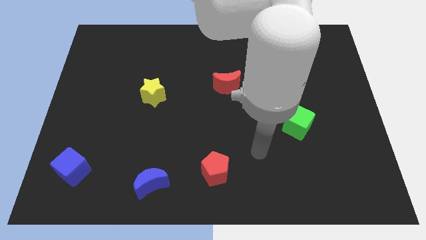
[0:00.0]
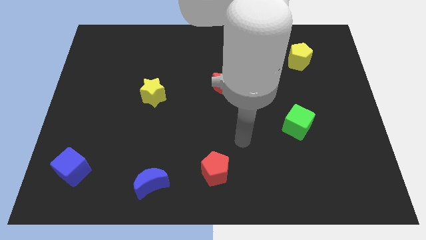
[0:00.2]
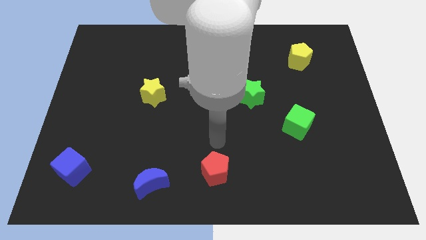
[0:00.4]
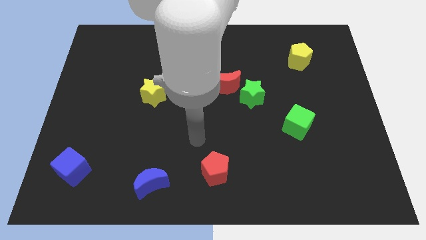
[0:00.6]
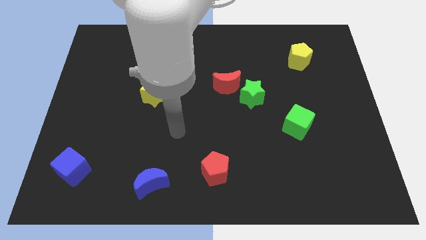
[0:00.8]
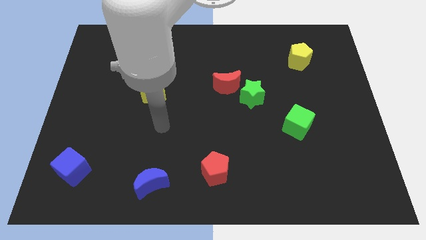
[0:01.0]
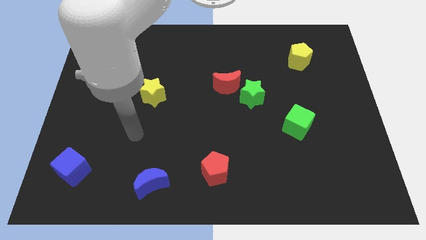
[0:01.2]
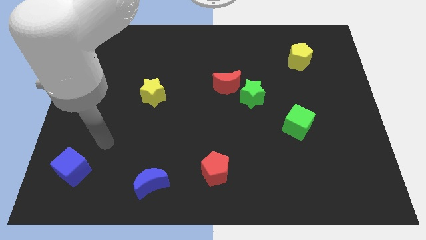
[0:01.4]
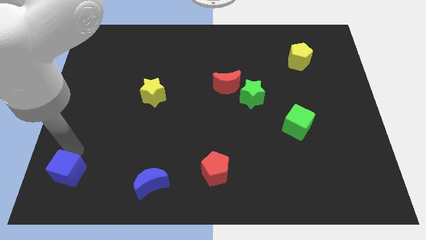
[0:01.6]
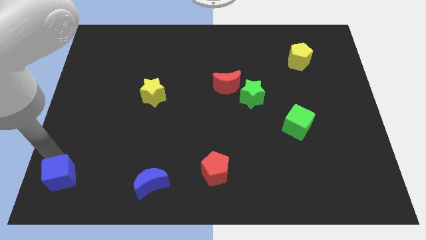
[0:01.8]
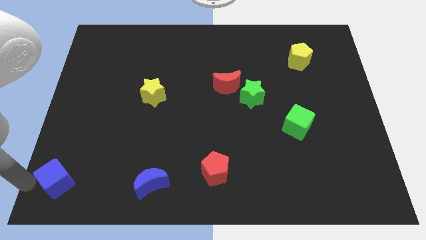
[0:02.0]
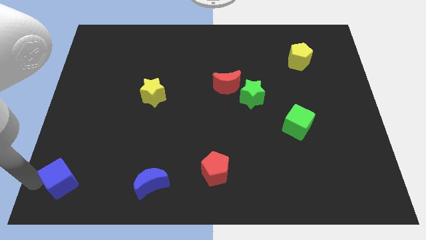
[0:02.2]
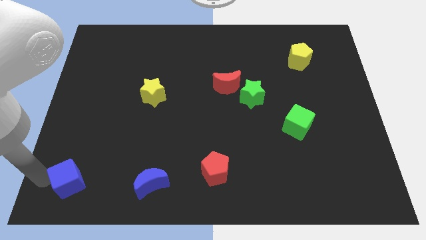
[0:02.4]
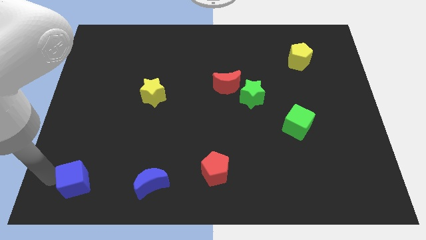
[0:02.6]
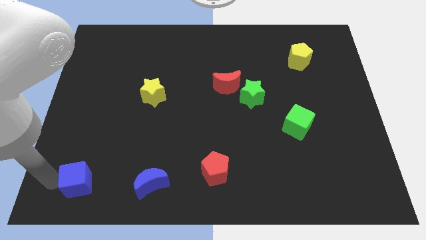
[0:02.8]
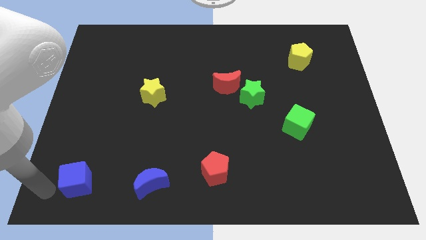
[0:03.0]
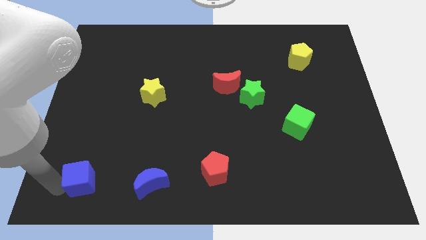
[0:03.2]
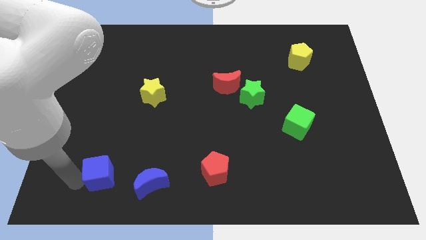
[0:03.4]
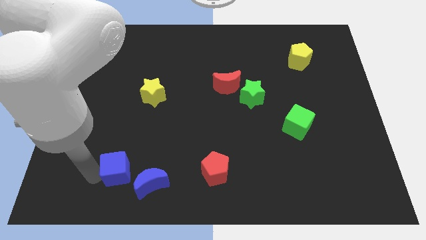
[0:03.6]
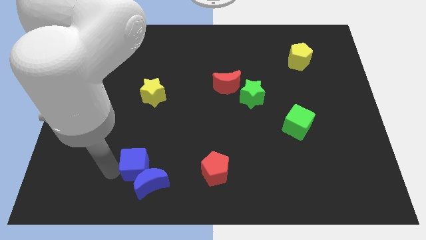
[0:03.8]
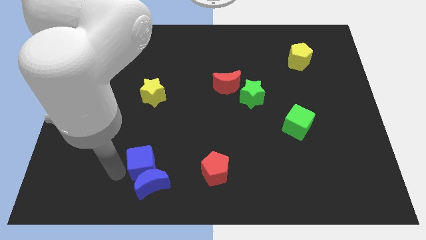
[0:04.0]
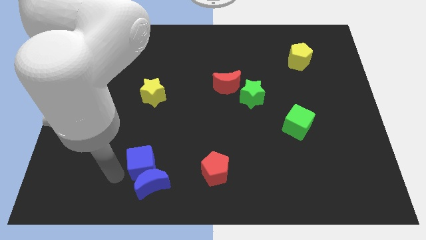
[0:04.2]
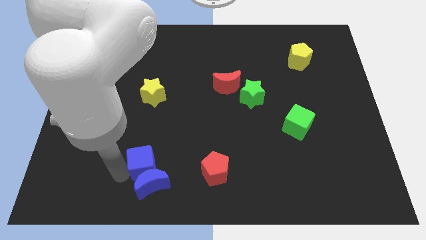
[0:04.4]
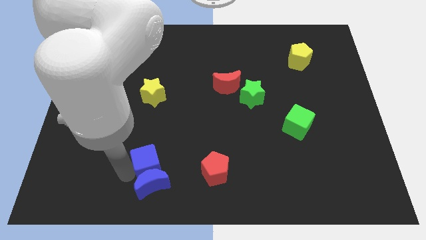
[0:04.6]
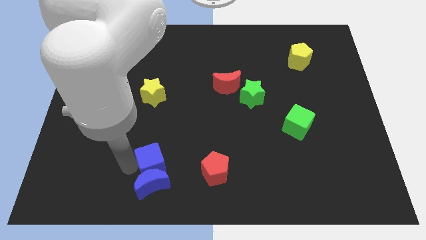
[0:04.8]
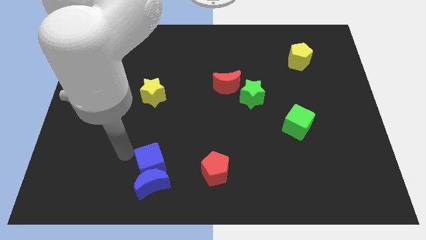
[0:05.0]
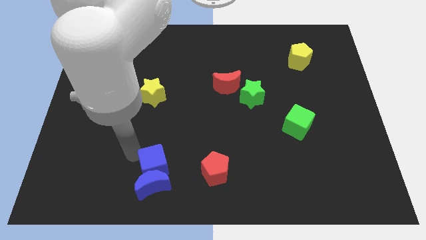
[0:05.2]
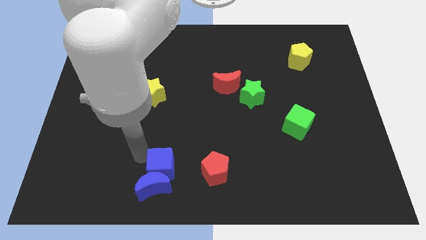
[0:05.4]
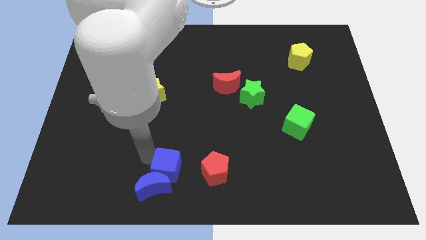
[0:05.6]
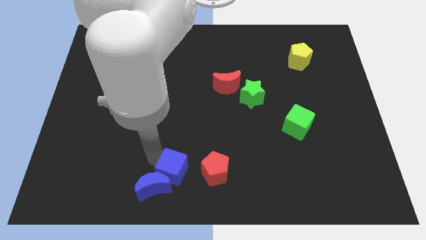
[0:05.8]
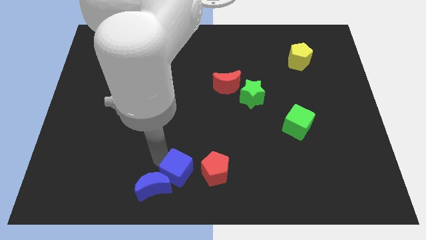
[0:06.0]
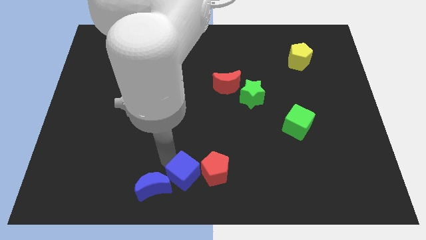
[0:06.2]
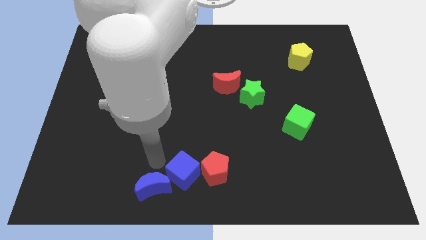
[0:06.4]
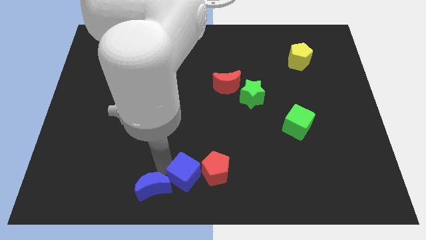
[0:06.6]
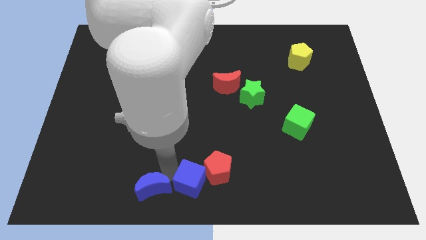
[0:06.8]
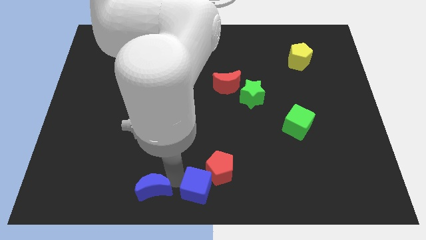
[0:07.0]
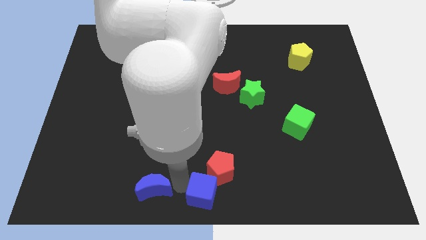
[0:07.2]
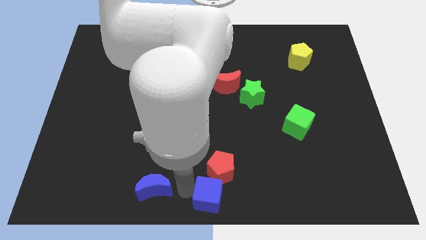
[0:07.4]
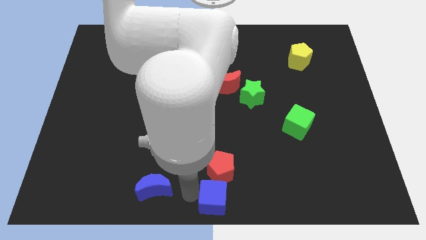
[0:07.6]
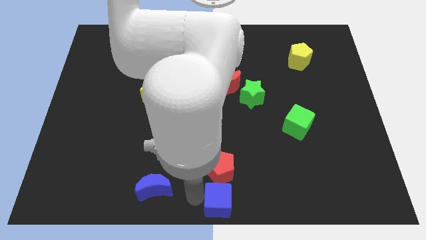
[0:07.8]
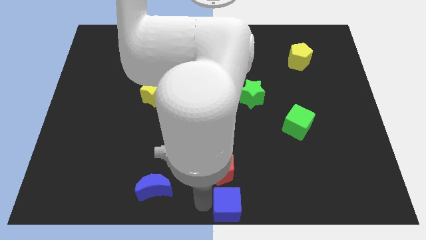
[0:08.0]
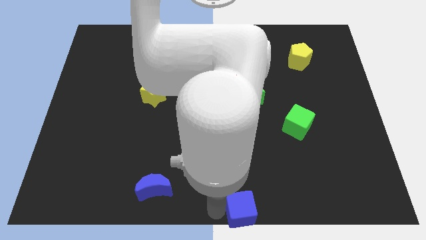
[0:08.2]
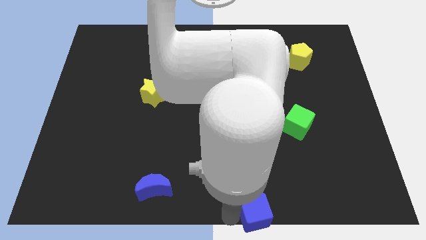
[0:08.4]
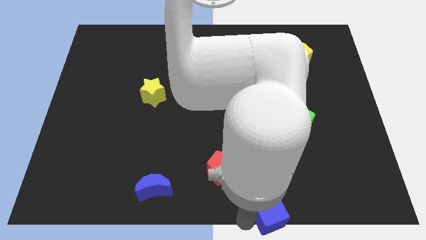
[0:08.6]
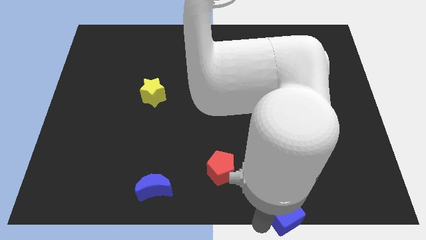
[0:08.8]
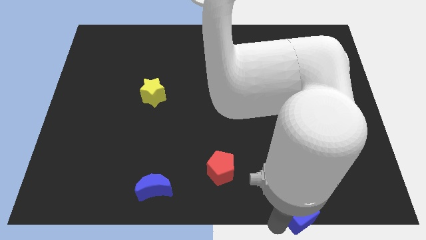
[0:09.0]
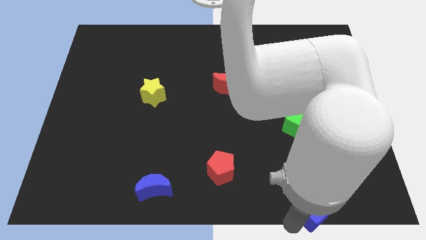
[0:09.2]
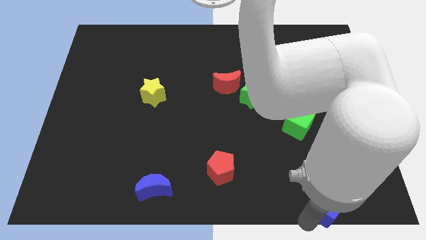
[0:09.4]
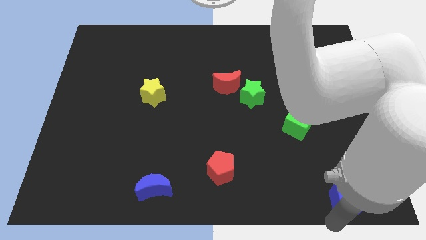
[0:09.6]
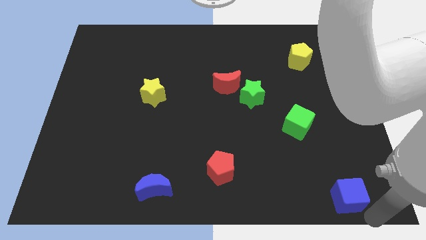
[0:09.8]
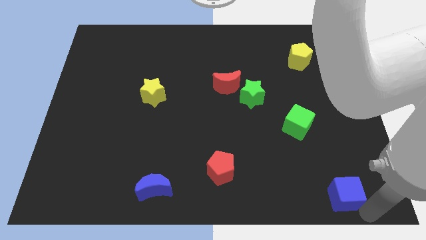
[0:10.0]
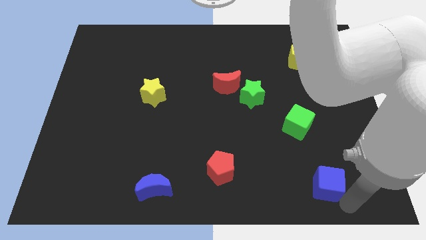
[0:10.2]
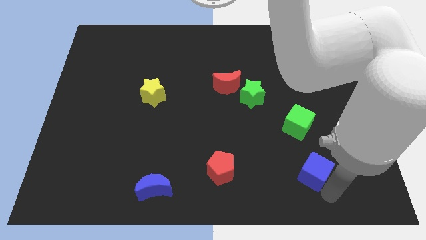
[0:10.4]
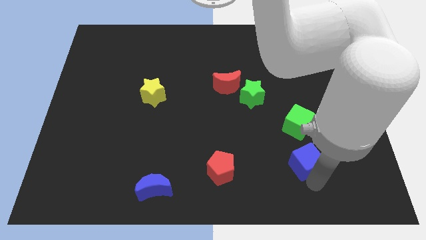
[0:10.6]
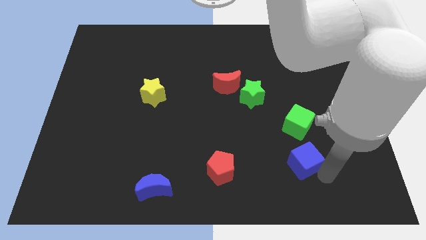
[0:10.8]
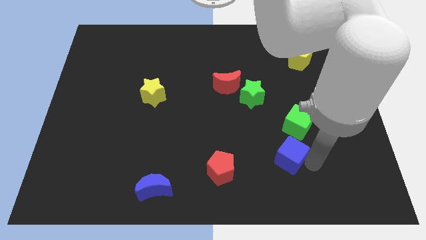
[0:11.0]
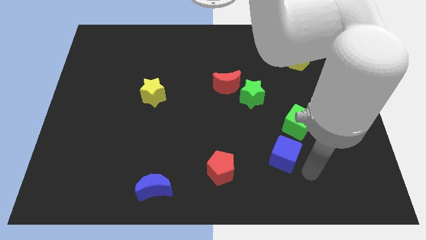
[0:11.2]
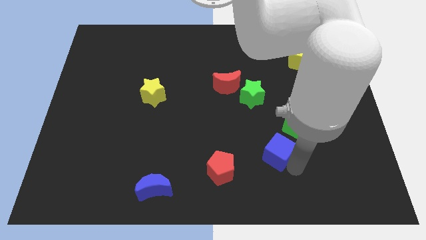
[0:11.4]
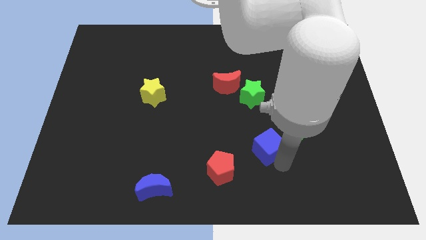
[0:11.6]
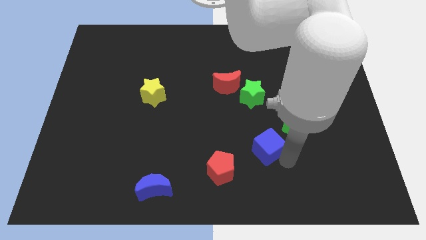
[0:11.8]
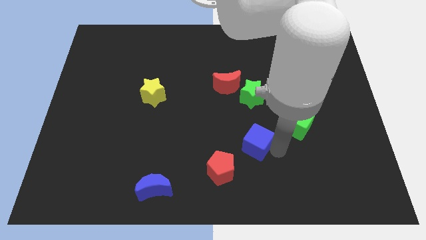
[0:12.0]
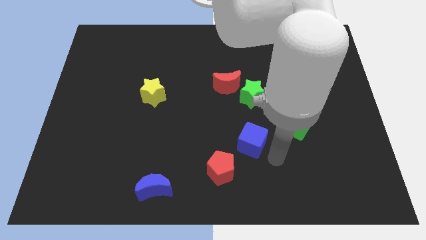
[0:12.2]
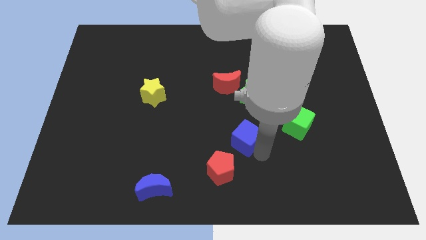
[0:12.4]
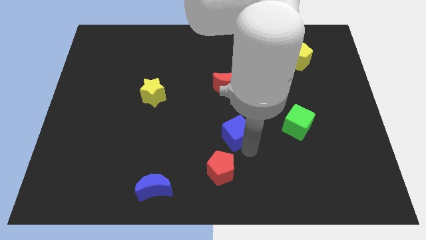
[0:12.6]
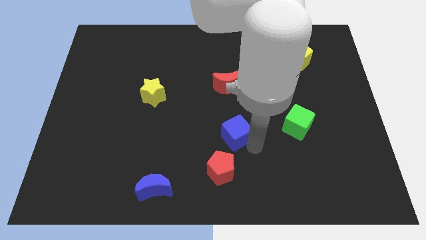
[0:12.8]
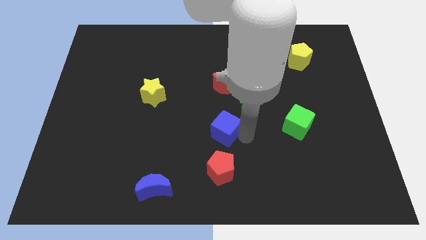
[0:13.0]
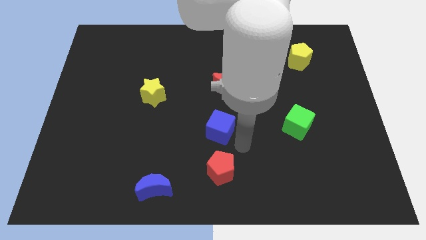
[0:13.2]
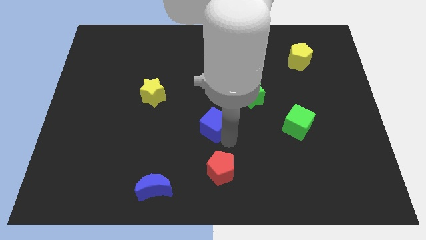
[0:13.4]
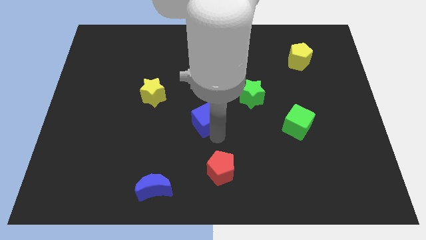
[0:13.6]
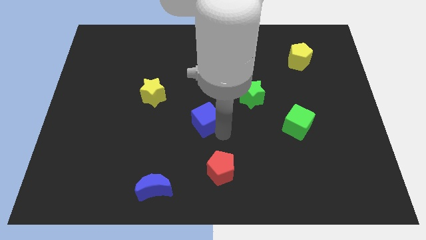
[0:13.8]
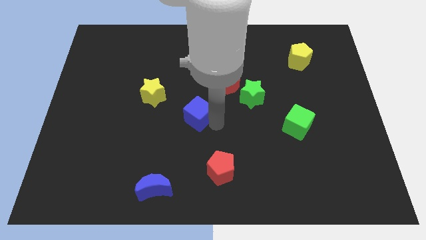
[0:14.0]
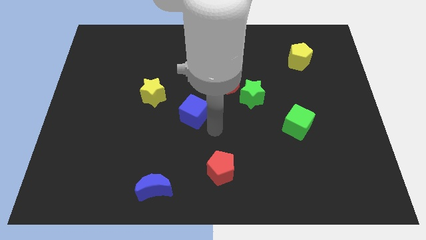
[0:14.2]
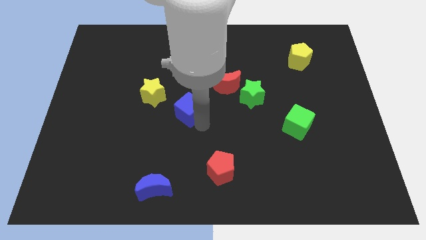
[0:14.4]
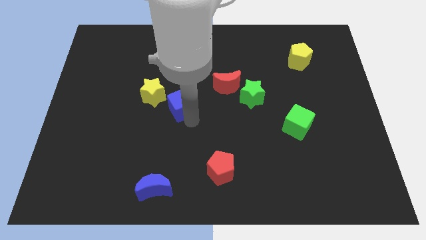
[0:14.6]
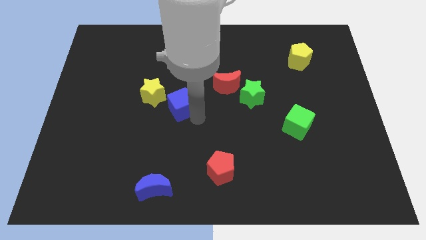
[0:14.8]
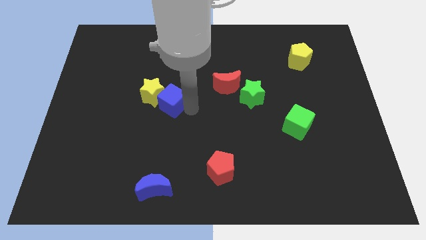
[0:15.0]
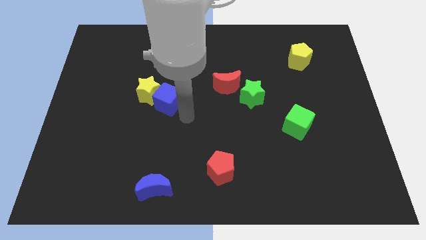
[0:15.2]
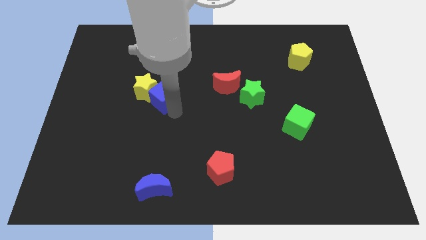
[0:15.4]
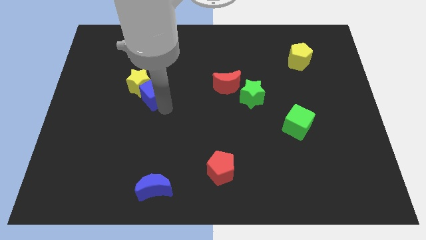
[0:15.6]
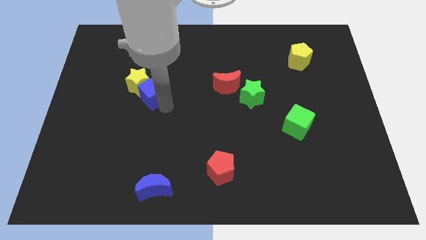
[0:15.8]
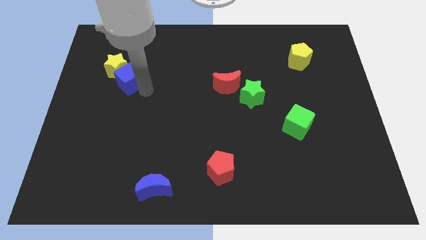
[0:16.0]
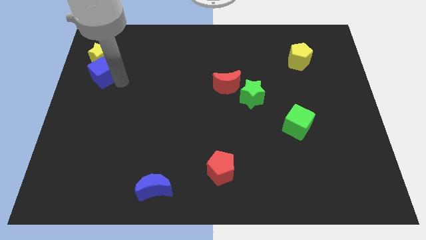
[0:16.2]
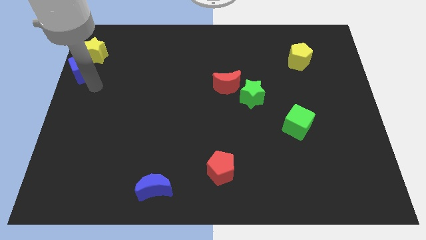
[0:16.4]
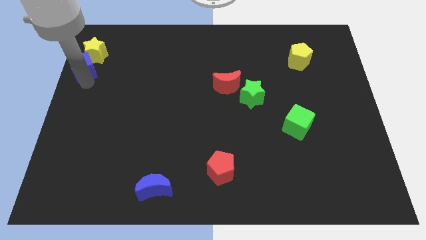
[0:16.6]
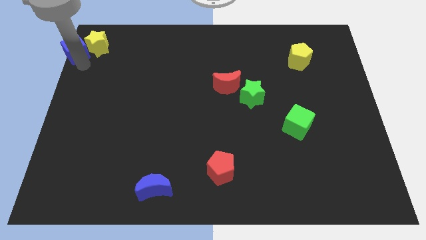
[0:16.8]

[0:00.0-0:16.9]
push the blue cube to the upper left corner
